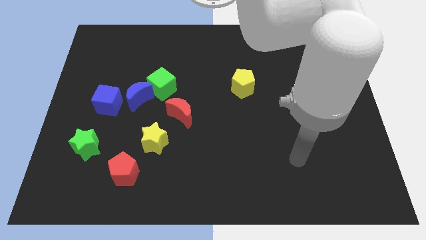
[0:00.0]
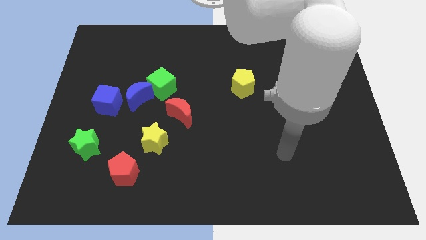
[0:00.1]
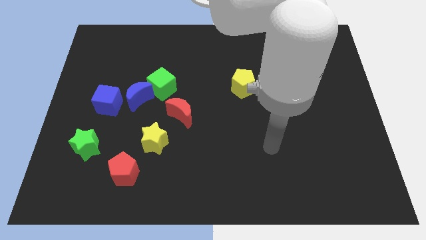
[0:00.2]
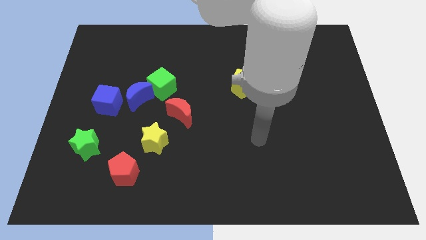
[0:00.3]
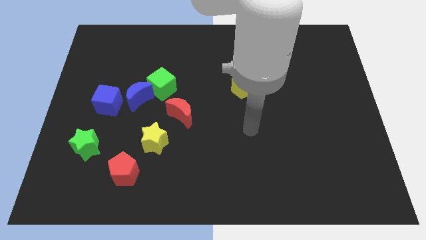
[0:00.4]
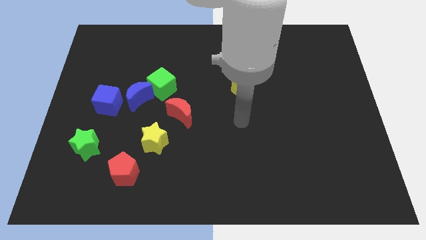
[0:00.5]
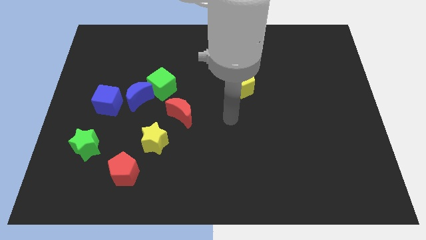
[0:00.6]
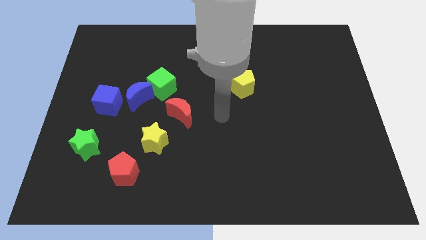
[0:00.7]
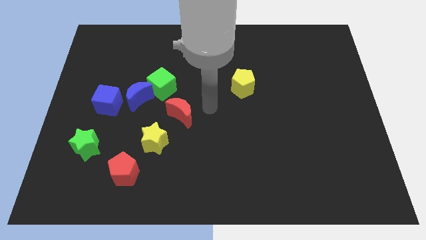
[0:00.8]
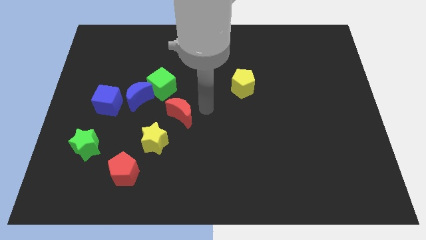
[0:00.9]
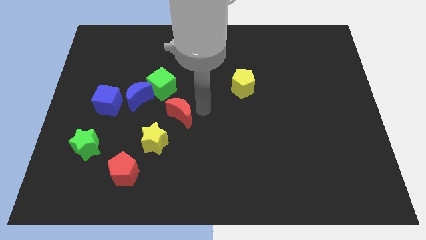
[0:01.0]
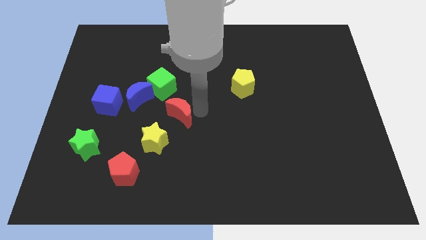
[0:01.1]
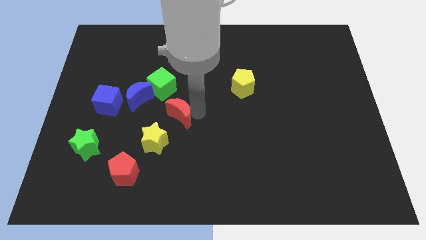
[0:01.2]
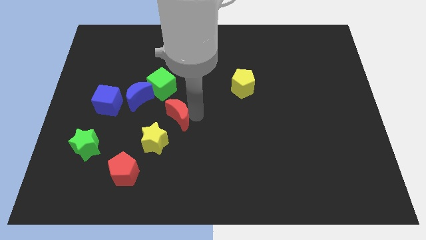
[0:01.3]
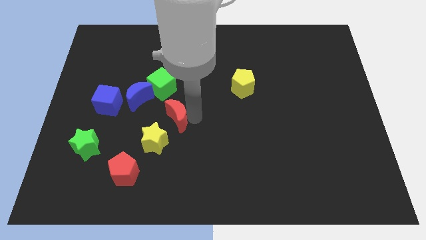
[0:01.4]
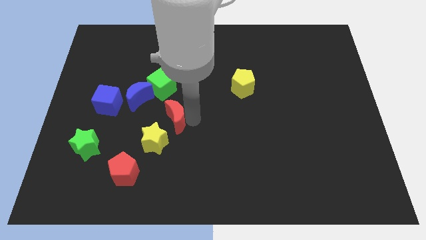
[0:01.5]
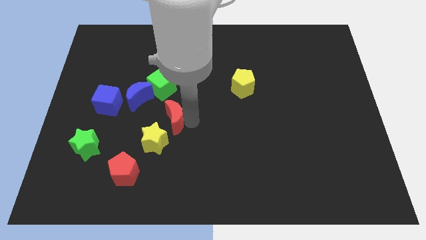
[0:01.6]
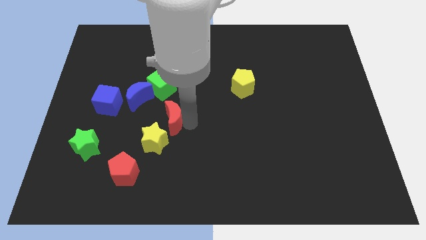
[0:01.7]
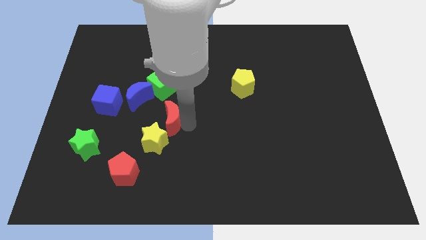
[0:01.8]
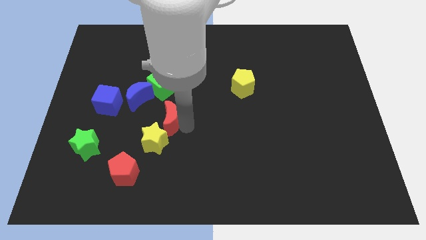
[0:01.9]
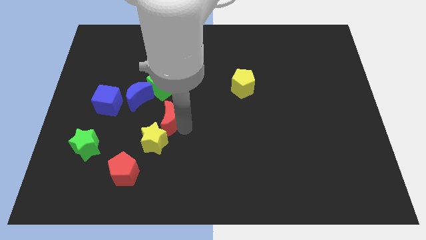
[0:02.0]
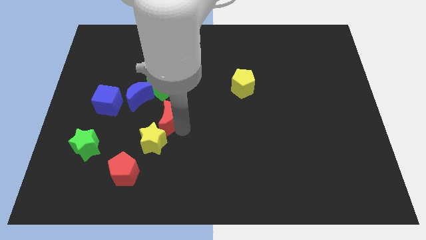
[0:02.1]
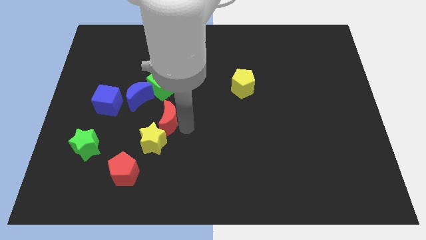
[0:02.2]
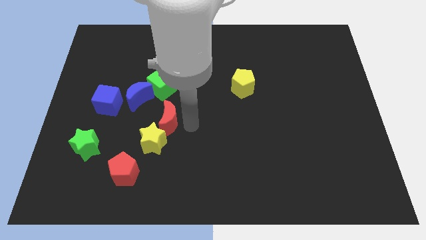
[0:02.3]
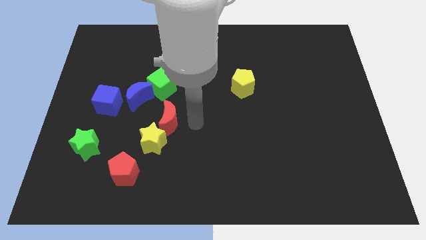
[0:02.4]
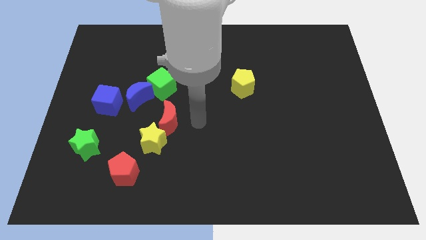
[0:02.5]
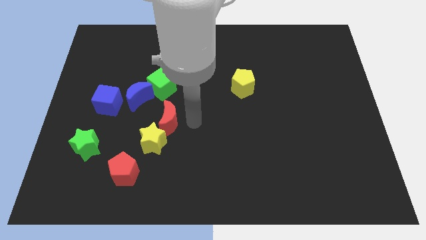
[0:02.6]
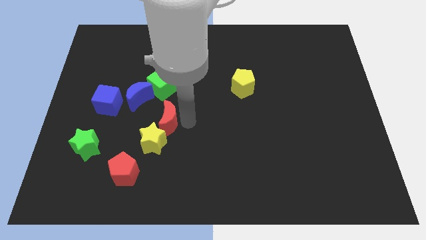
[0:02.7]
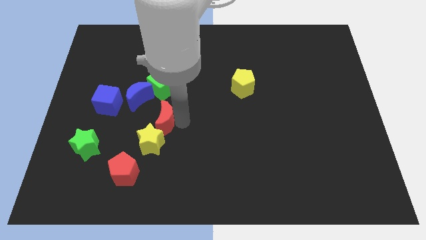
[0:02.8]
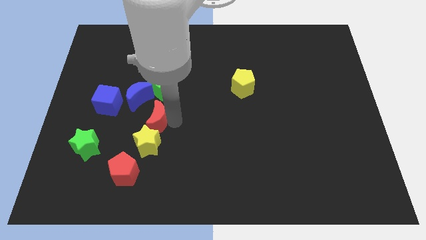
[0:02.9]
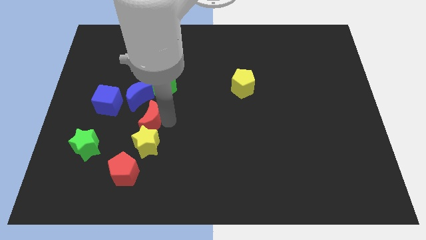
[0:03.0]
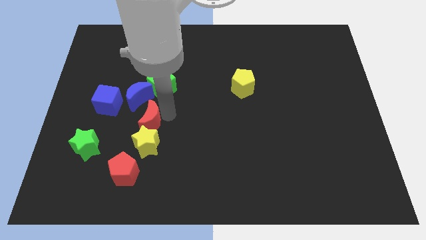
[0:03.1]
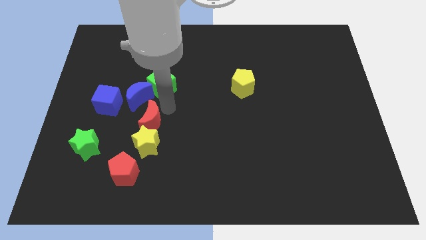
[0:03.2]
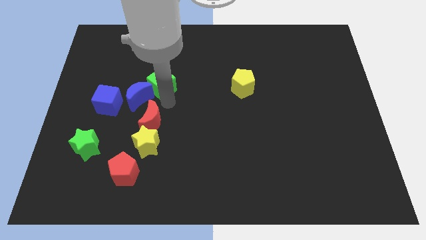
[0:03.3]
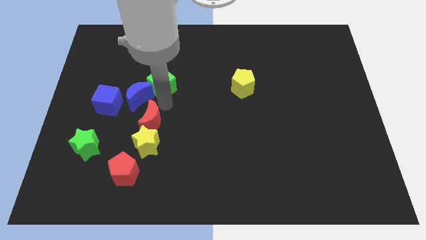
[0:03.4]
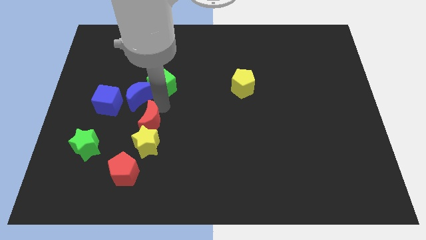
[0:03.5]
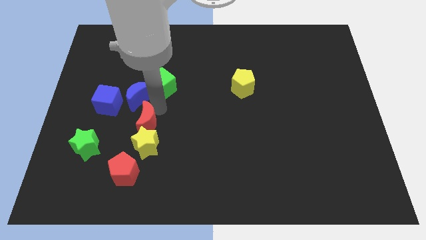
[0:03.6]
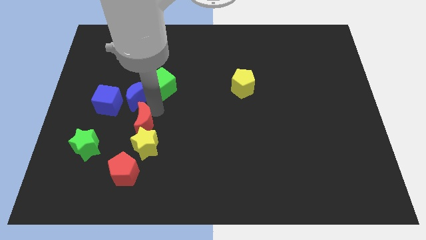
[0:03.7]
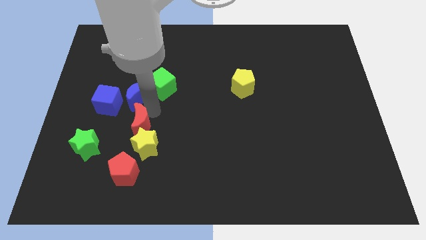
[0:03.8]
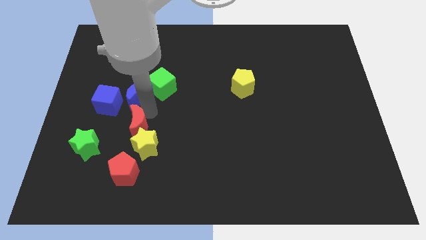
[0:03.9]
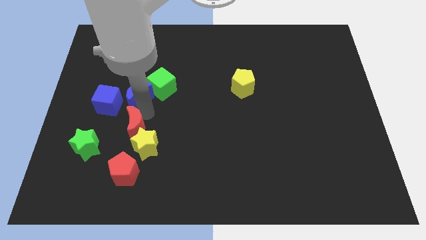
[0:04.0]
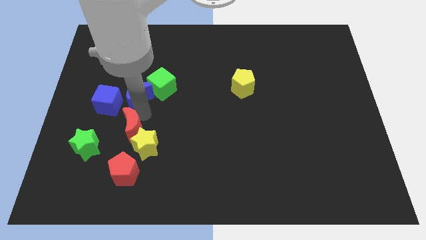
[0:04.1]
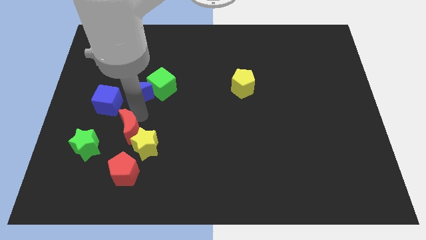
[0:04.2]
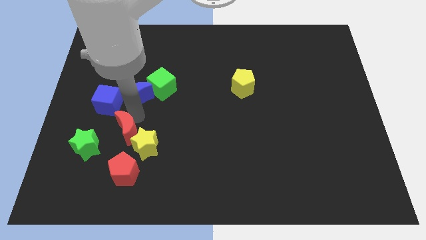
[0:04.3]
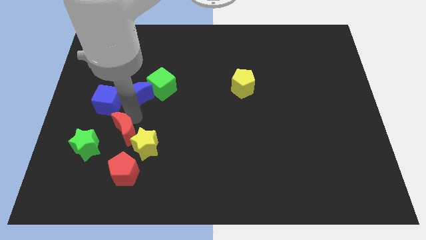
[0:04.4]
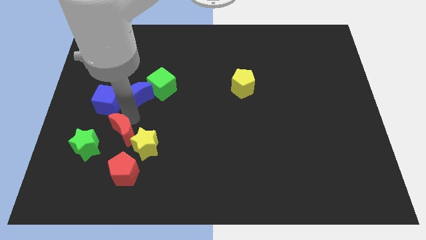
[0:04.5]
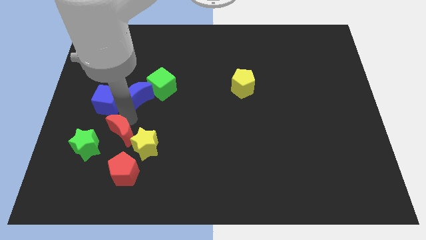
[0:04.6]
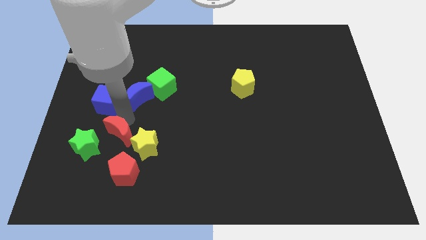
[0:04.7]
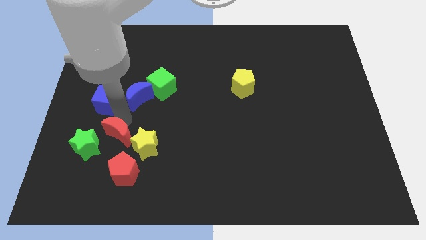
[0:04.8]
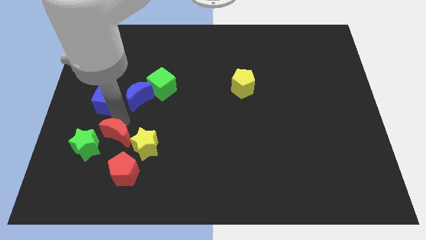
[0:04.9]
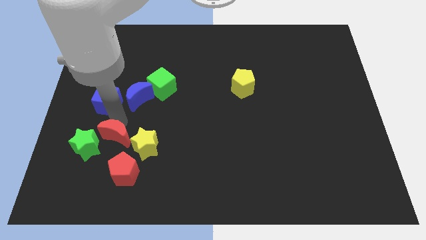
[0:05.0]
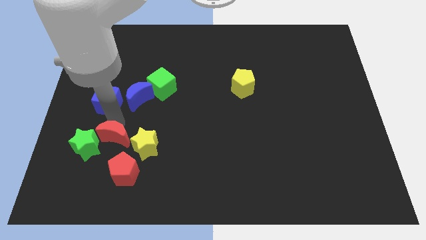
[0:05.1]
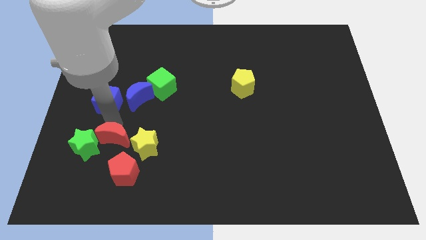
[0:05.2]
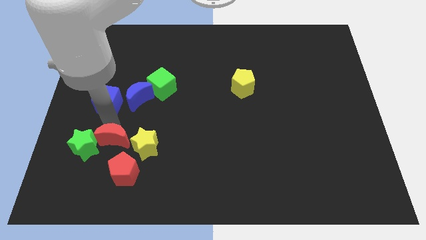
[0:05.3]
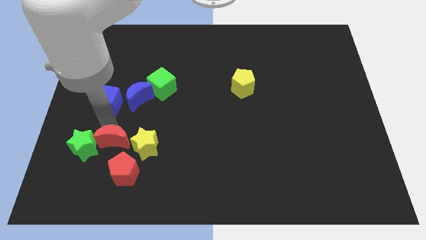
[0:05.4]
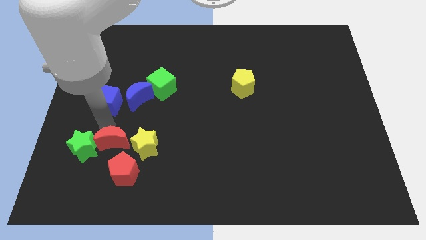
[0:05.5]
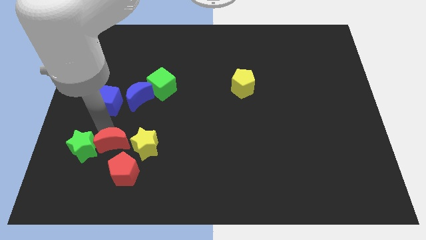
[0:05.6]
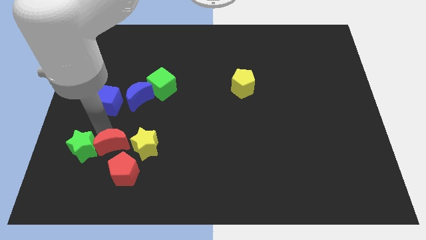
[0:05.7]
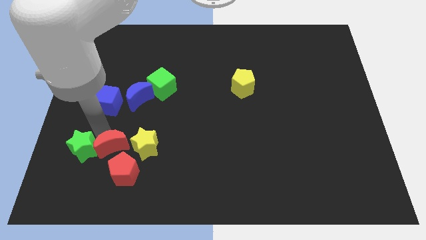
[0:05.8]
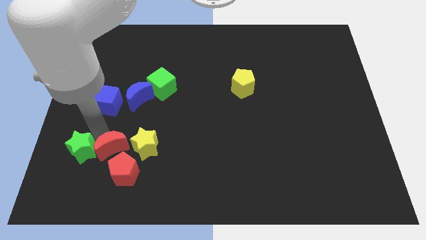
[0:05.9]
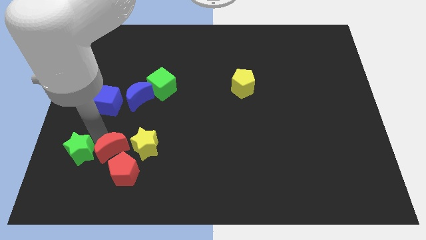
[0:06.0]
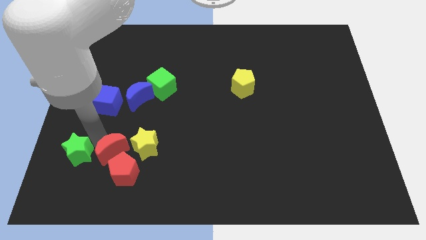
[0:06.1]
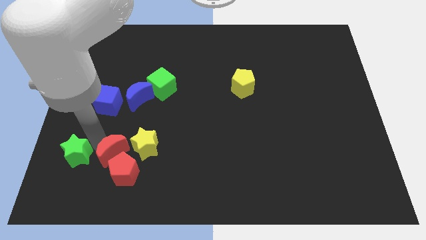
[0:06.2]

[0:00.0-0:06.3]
put the red moon towards the red pentagon

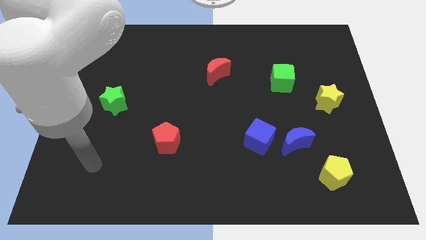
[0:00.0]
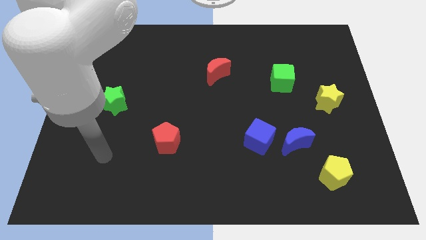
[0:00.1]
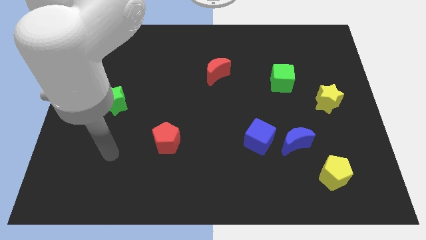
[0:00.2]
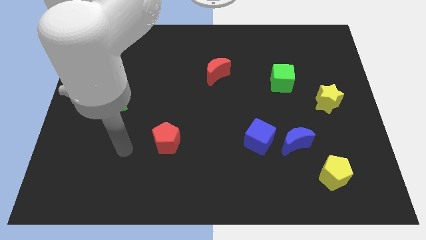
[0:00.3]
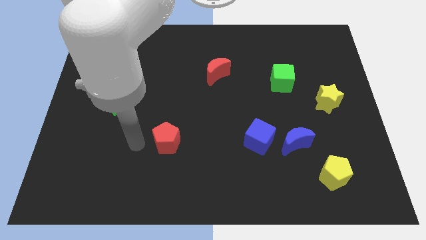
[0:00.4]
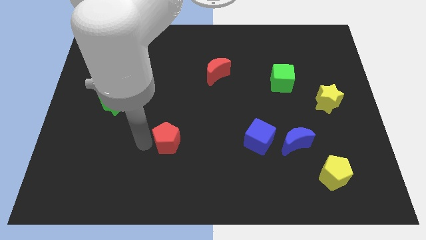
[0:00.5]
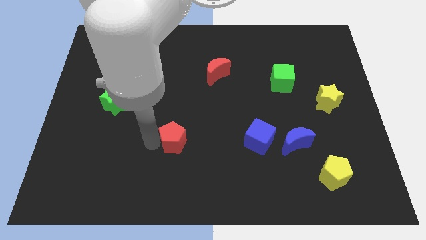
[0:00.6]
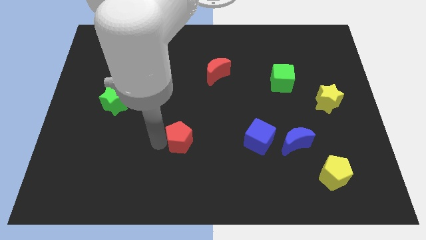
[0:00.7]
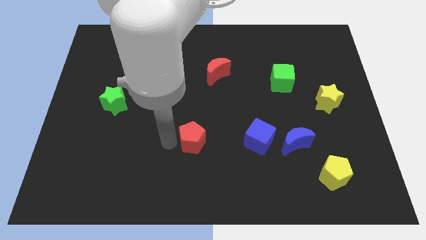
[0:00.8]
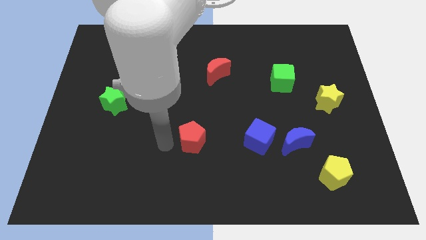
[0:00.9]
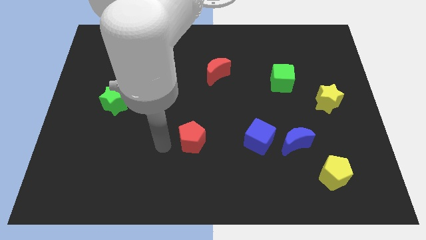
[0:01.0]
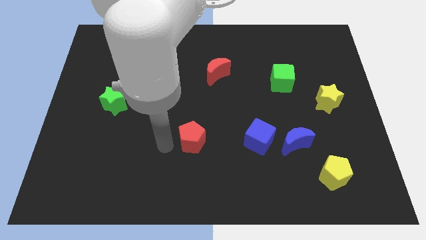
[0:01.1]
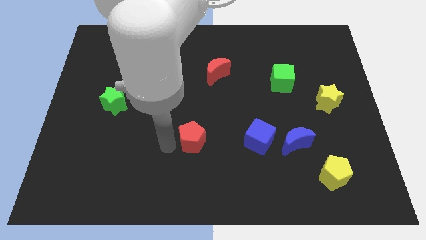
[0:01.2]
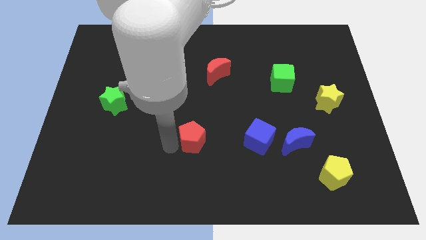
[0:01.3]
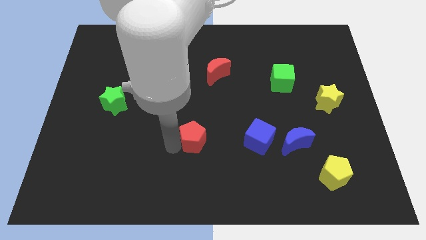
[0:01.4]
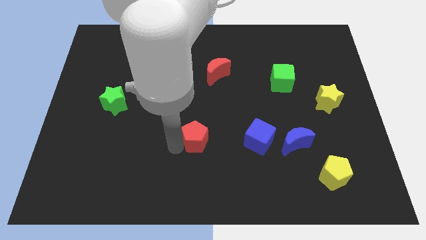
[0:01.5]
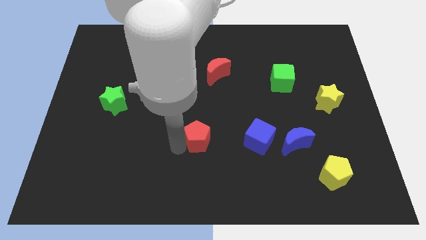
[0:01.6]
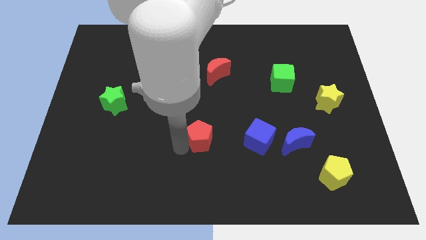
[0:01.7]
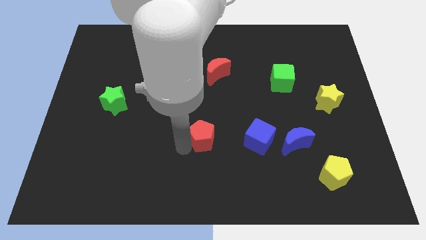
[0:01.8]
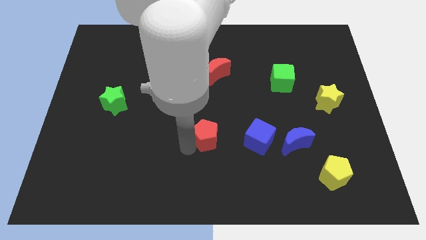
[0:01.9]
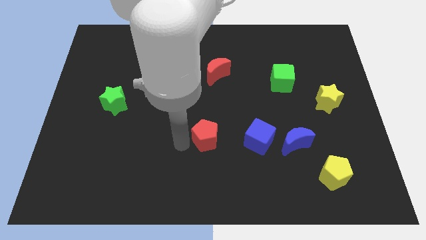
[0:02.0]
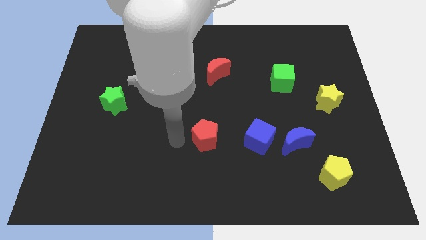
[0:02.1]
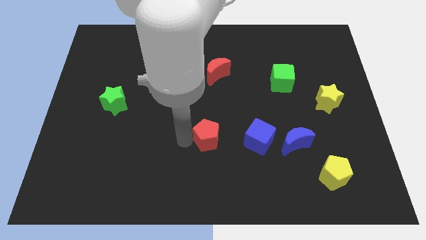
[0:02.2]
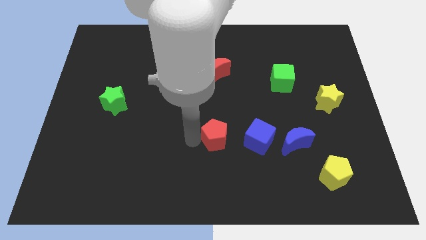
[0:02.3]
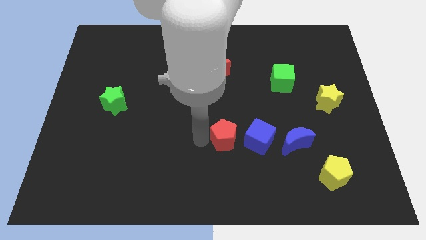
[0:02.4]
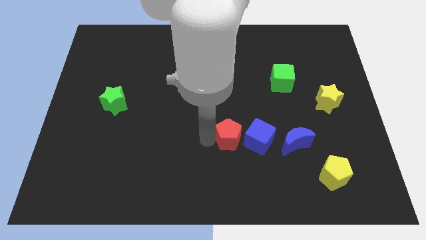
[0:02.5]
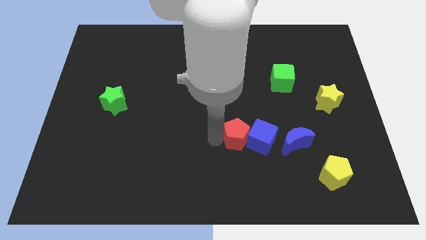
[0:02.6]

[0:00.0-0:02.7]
slide the red pentagon to the blue cube
